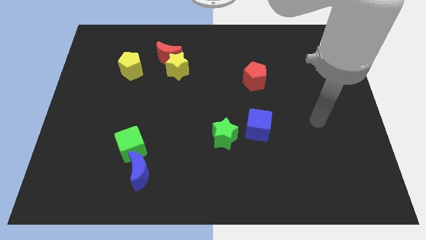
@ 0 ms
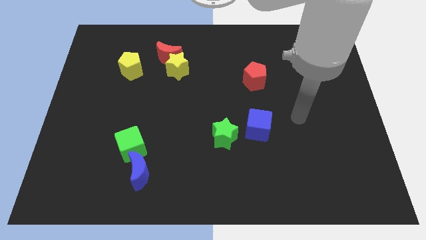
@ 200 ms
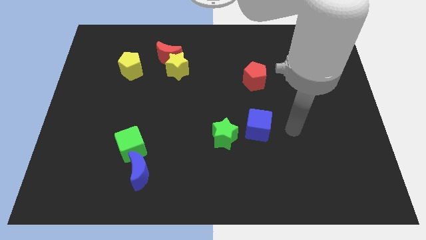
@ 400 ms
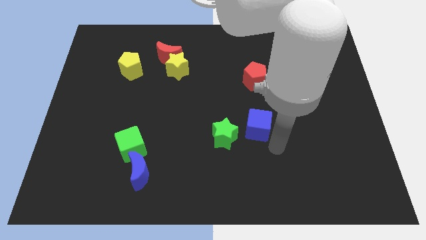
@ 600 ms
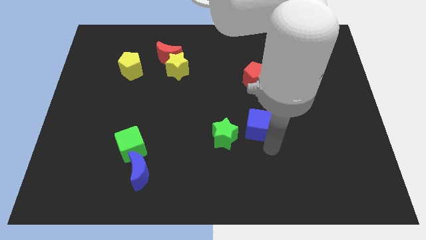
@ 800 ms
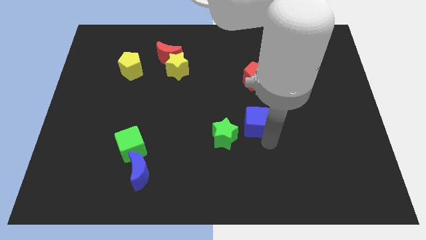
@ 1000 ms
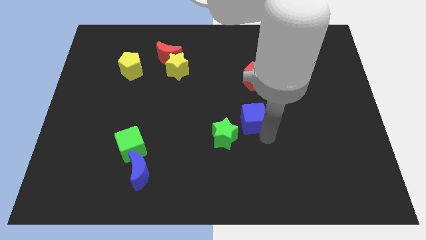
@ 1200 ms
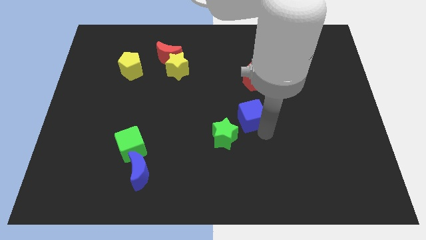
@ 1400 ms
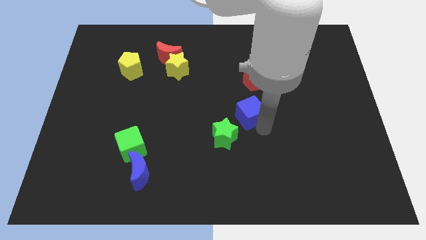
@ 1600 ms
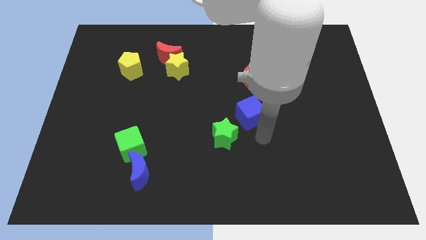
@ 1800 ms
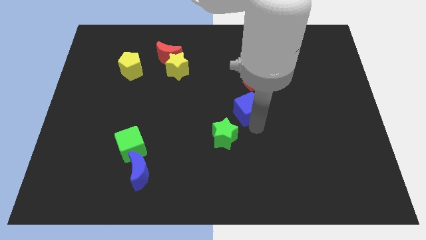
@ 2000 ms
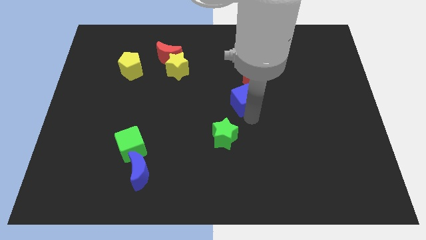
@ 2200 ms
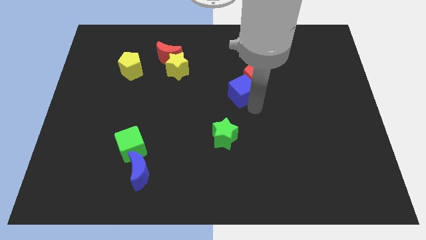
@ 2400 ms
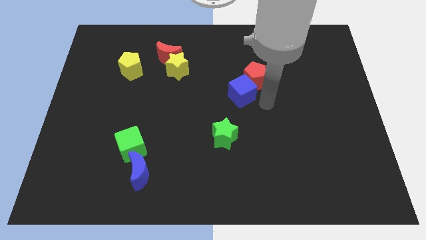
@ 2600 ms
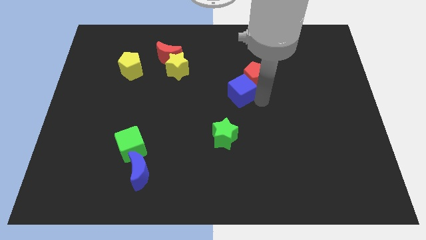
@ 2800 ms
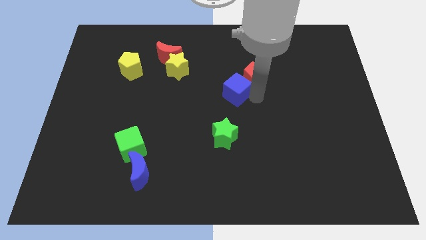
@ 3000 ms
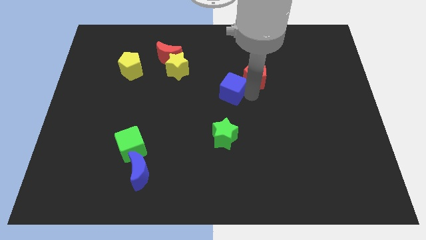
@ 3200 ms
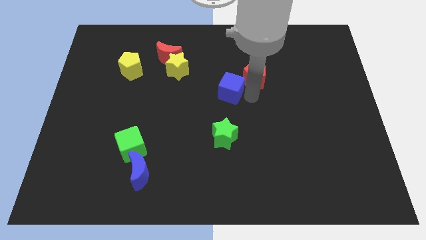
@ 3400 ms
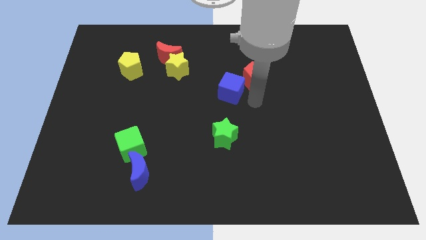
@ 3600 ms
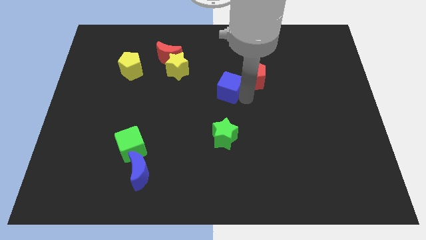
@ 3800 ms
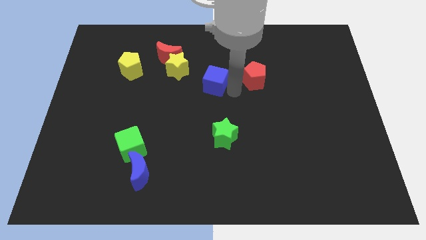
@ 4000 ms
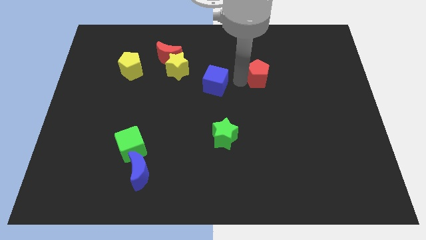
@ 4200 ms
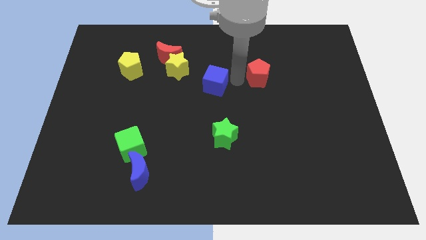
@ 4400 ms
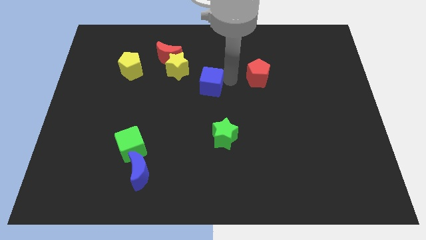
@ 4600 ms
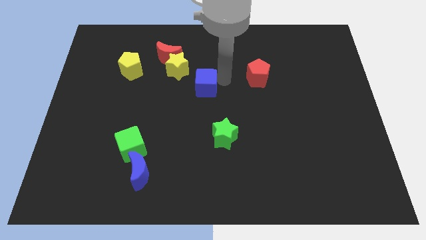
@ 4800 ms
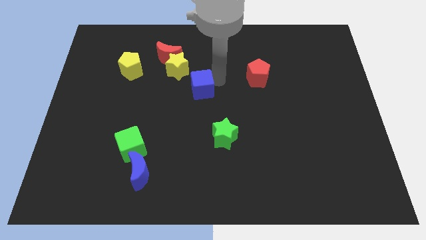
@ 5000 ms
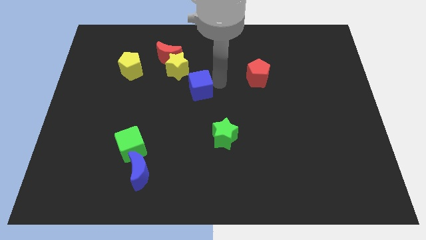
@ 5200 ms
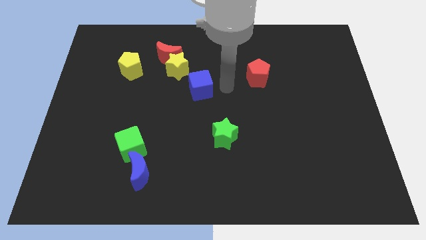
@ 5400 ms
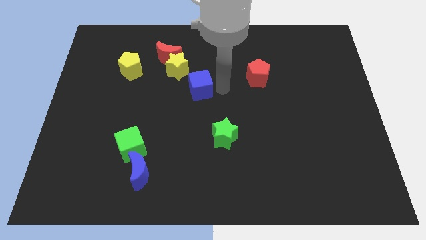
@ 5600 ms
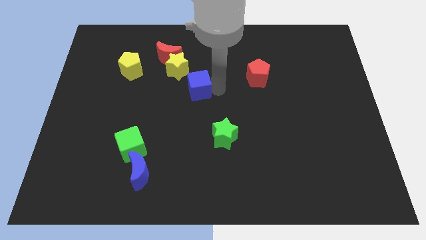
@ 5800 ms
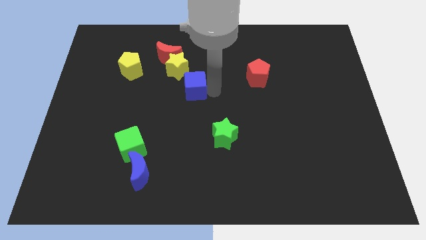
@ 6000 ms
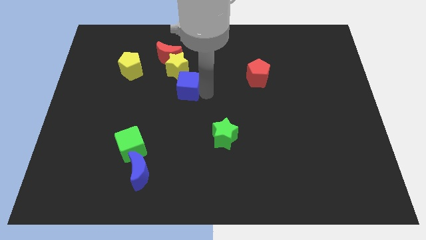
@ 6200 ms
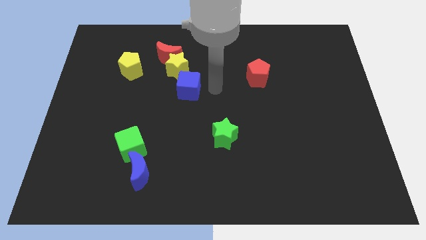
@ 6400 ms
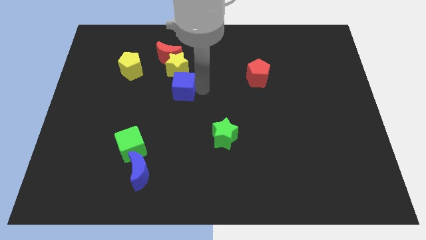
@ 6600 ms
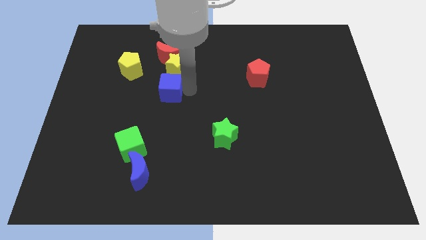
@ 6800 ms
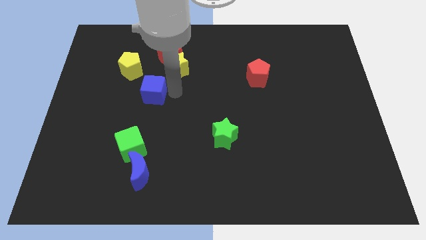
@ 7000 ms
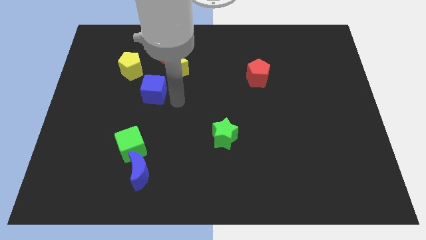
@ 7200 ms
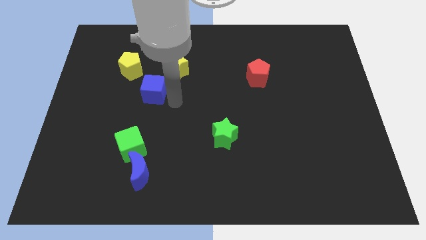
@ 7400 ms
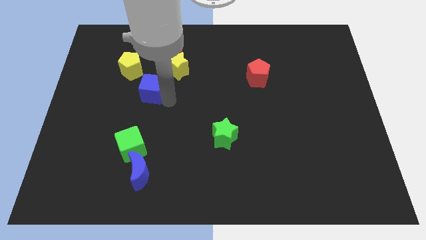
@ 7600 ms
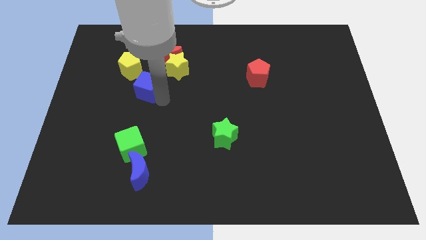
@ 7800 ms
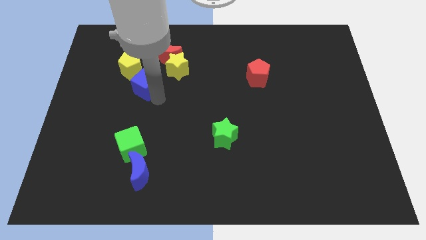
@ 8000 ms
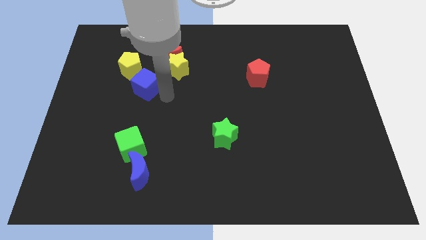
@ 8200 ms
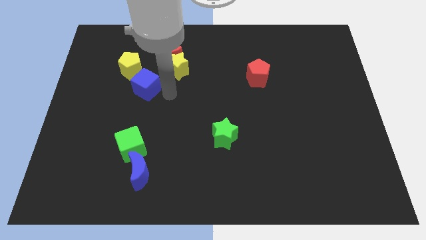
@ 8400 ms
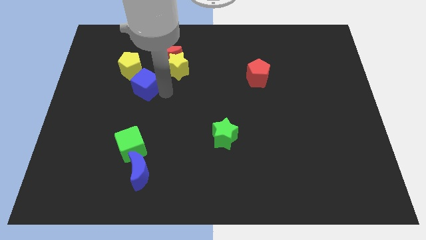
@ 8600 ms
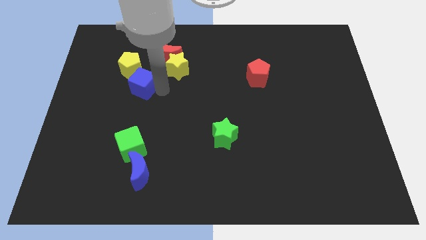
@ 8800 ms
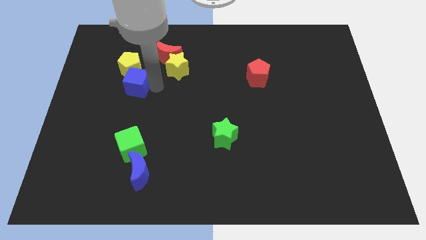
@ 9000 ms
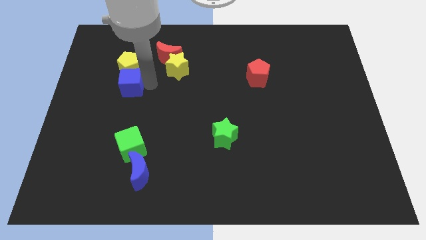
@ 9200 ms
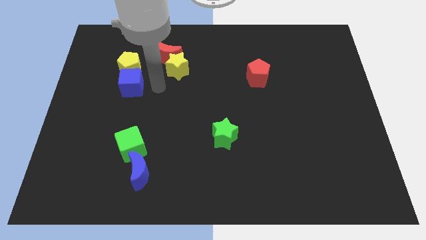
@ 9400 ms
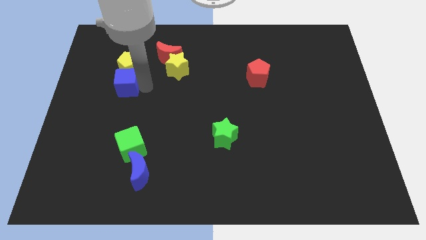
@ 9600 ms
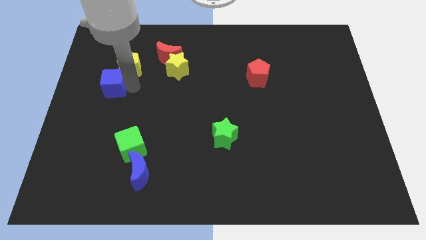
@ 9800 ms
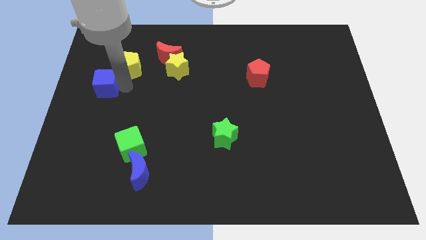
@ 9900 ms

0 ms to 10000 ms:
push the blue cube to the center left

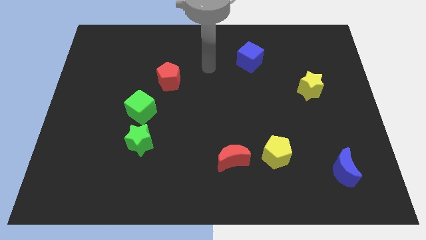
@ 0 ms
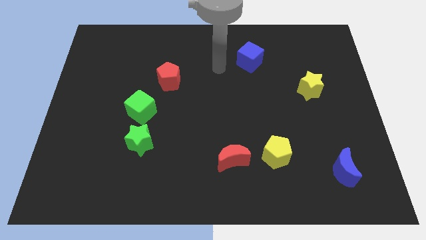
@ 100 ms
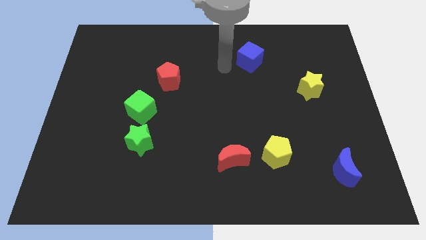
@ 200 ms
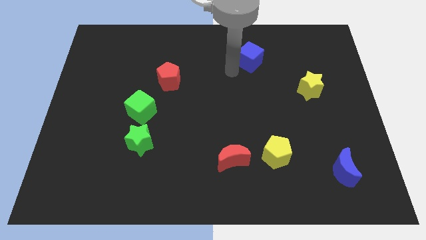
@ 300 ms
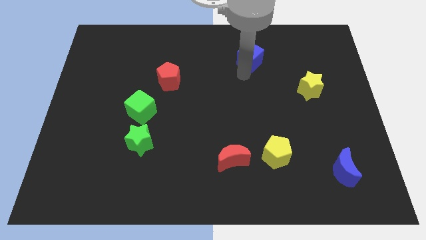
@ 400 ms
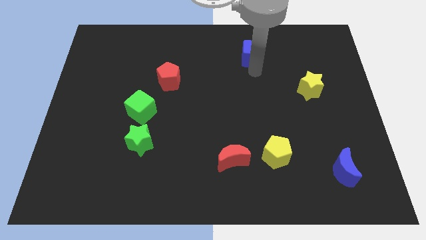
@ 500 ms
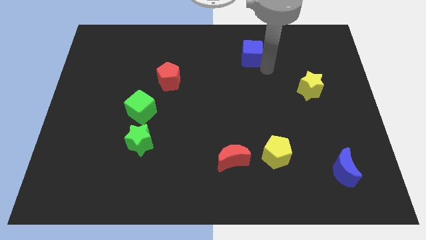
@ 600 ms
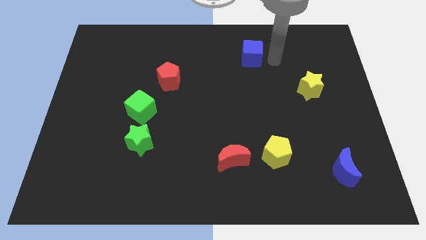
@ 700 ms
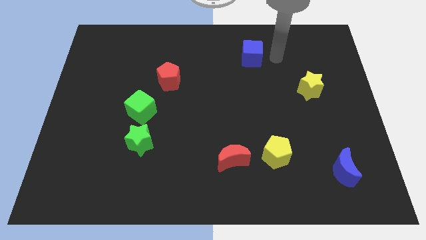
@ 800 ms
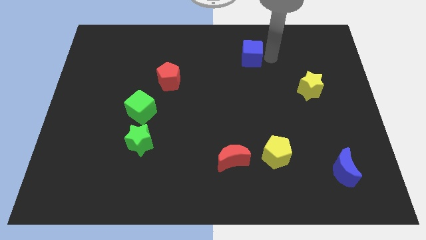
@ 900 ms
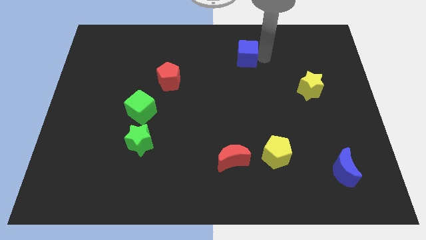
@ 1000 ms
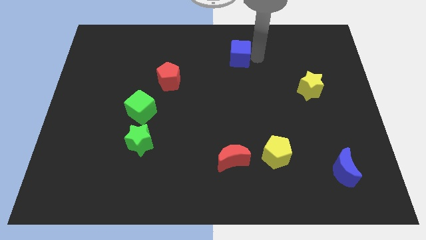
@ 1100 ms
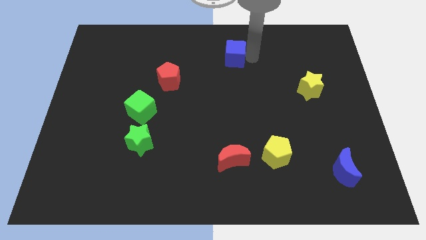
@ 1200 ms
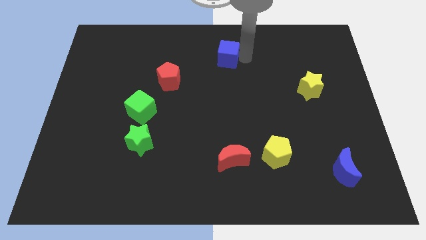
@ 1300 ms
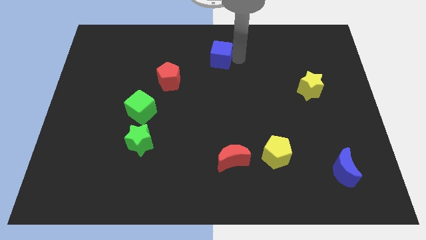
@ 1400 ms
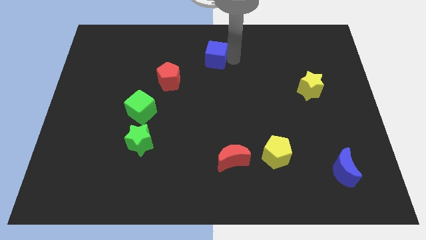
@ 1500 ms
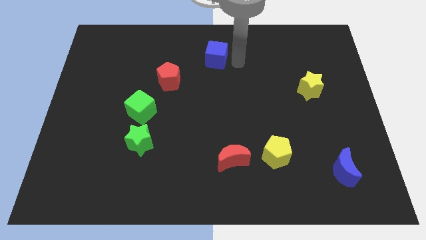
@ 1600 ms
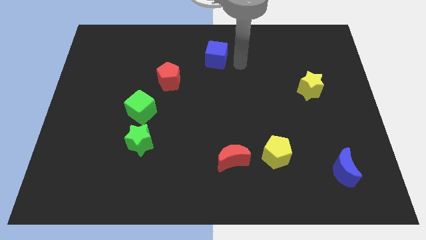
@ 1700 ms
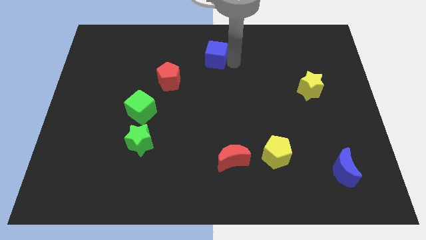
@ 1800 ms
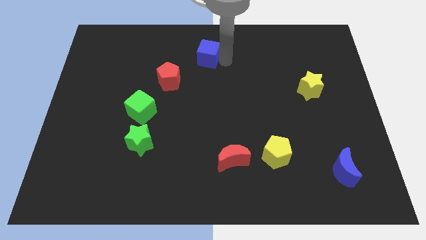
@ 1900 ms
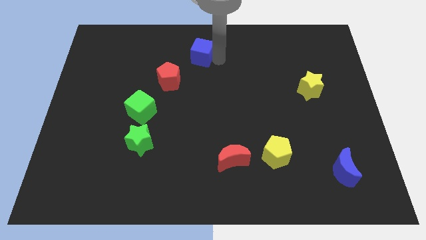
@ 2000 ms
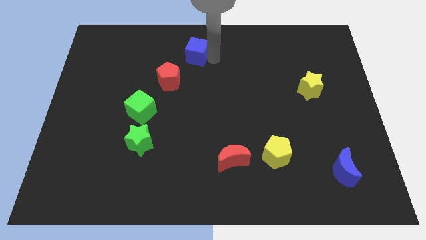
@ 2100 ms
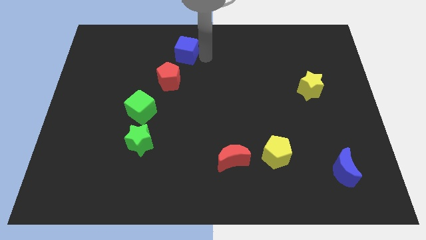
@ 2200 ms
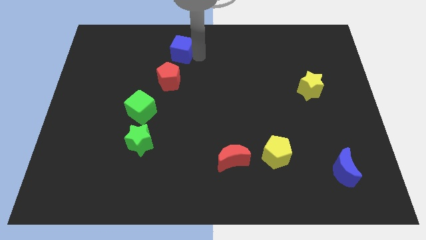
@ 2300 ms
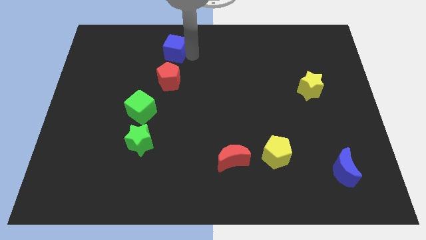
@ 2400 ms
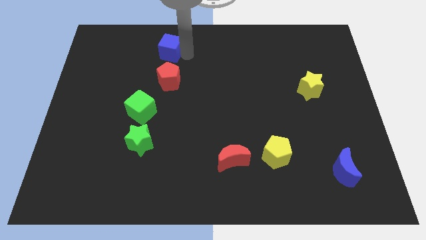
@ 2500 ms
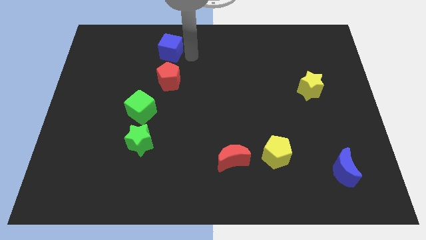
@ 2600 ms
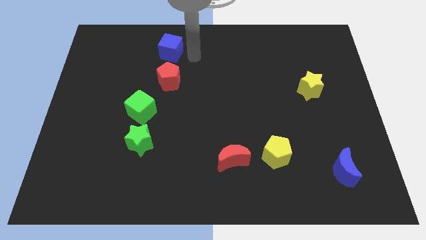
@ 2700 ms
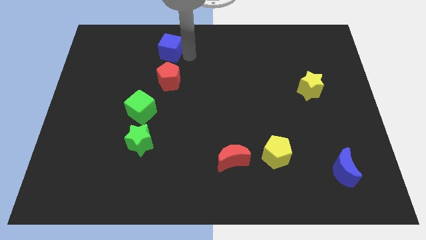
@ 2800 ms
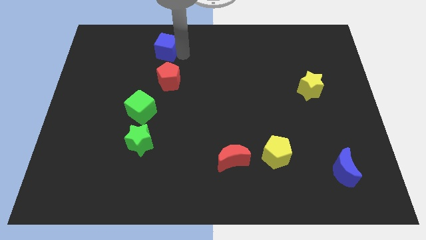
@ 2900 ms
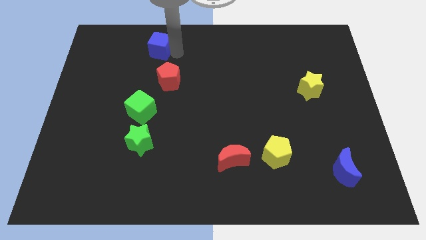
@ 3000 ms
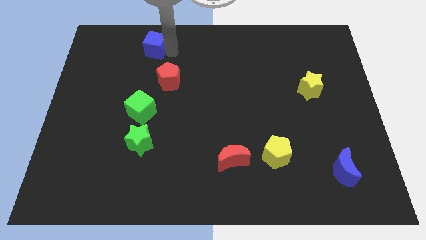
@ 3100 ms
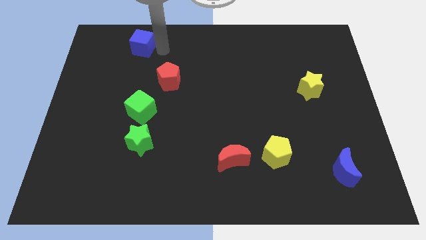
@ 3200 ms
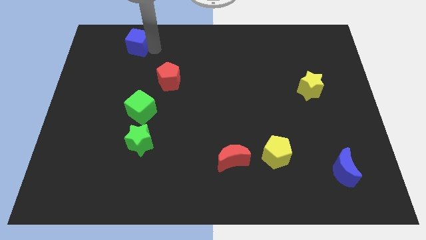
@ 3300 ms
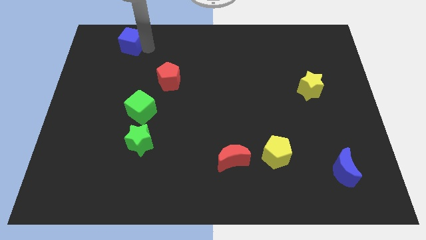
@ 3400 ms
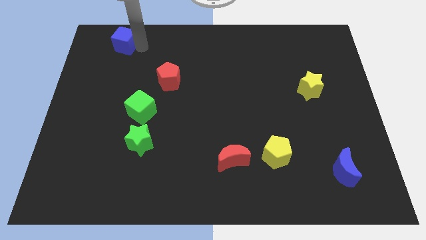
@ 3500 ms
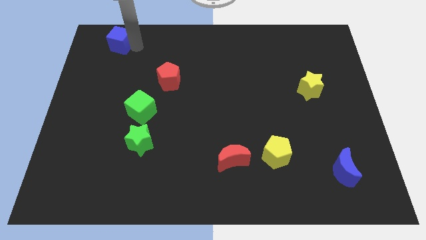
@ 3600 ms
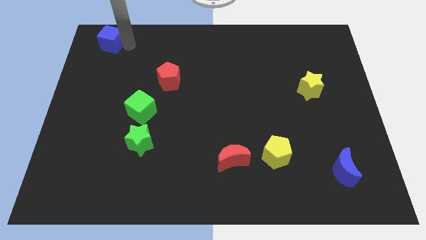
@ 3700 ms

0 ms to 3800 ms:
move the blue cube to the top left of the board
